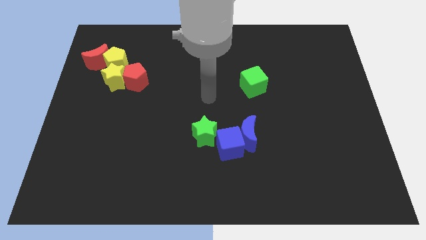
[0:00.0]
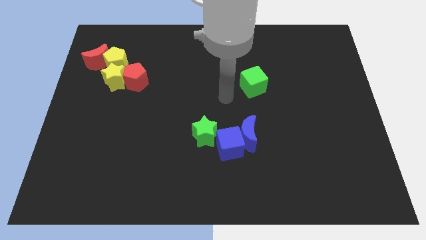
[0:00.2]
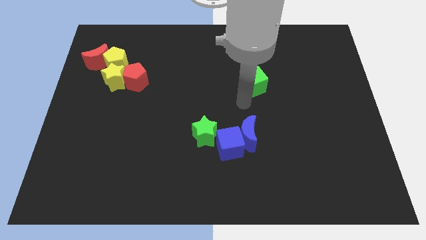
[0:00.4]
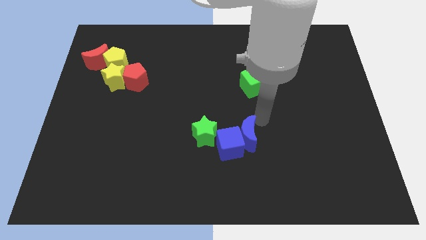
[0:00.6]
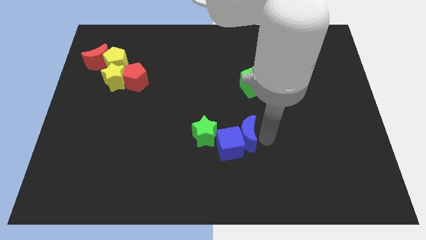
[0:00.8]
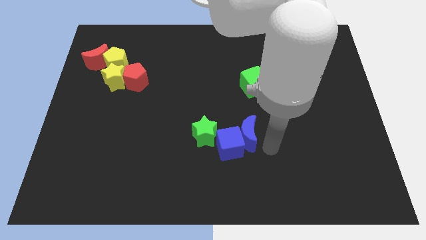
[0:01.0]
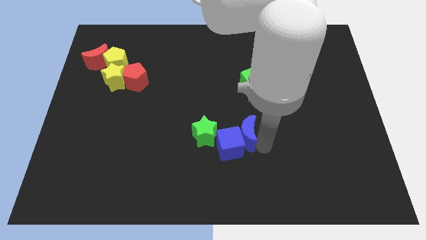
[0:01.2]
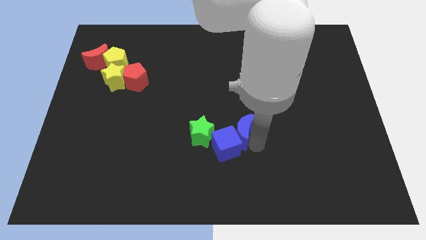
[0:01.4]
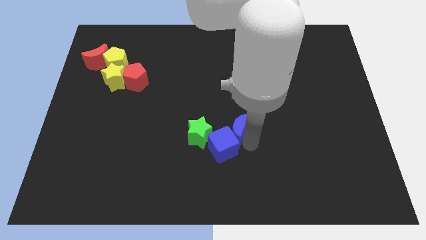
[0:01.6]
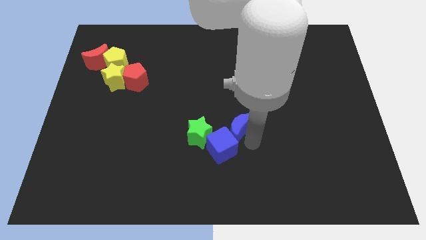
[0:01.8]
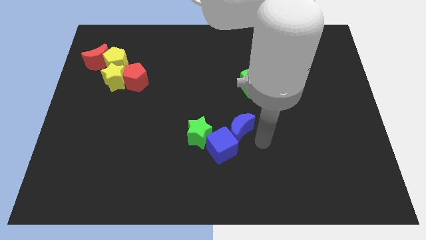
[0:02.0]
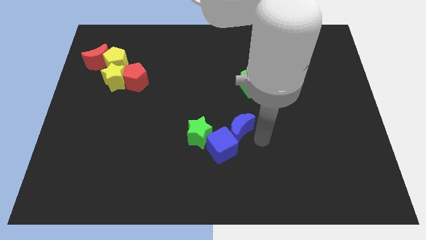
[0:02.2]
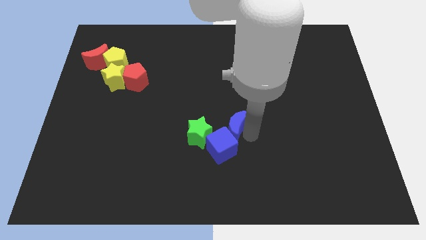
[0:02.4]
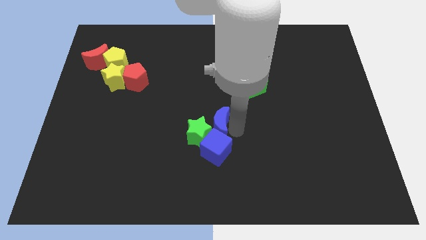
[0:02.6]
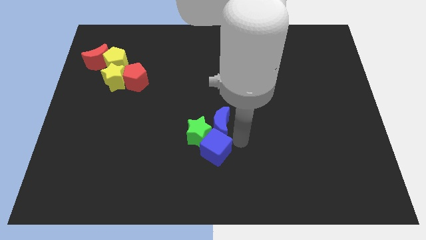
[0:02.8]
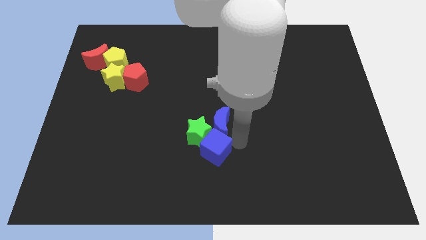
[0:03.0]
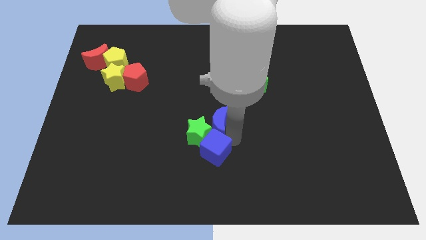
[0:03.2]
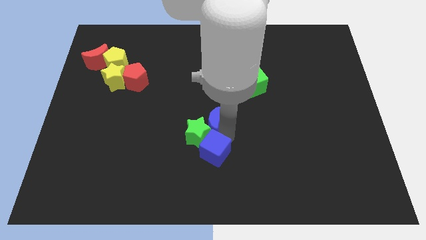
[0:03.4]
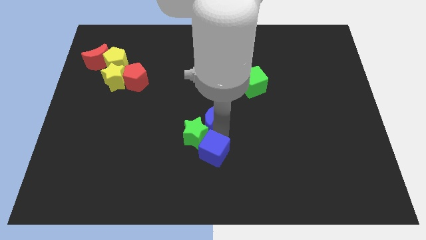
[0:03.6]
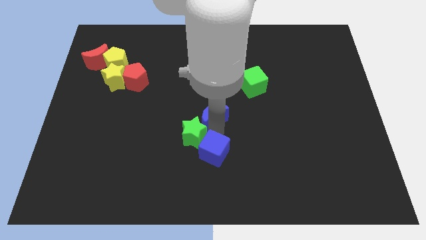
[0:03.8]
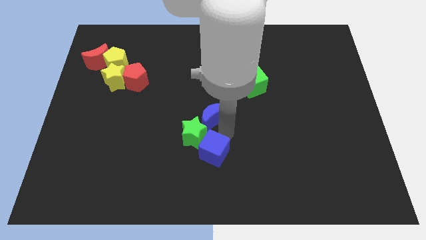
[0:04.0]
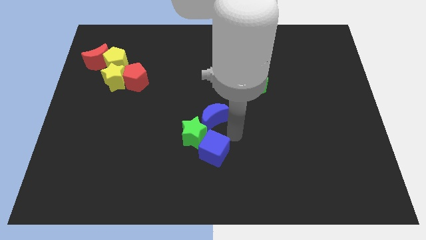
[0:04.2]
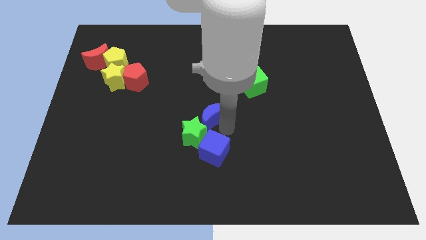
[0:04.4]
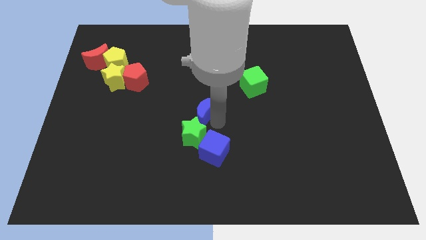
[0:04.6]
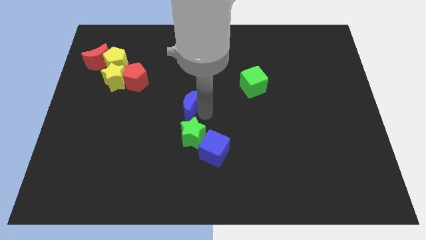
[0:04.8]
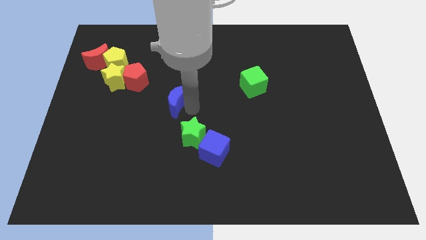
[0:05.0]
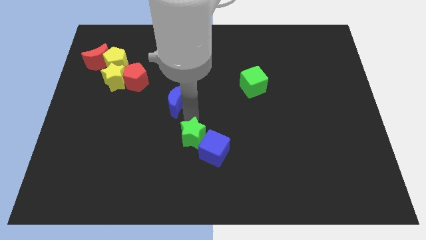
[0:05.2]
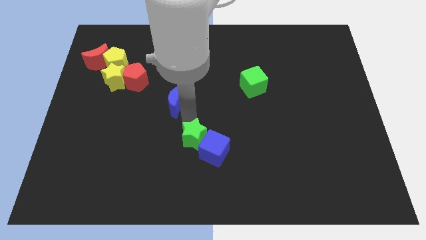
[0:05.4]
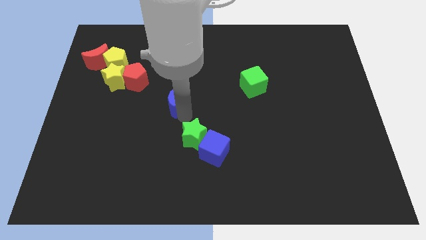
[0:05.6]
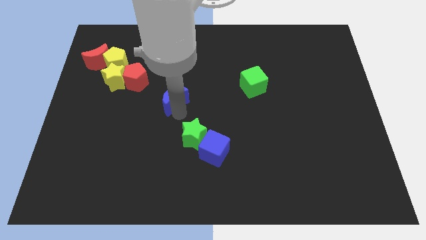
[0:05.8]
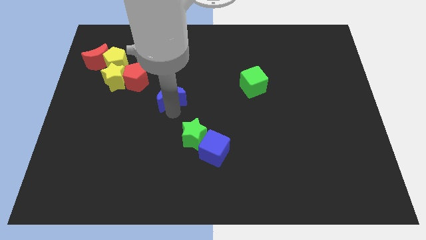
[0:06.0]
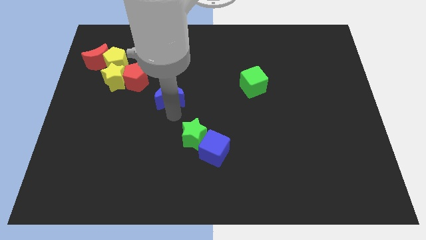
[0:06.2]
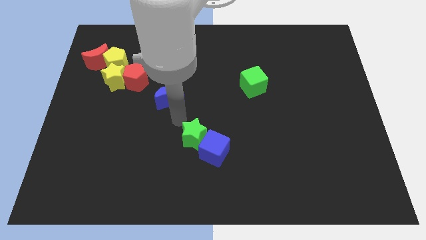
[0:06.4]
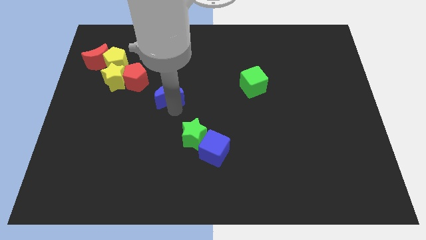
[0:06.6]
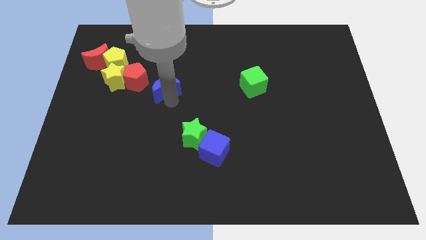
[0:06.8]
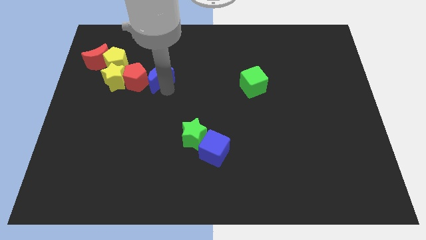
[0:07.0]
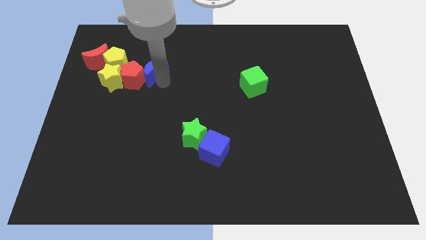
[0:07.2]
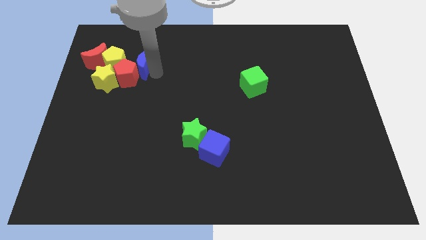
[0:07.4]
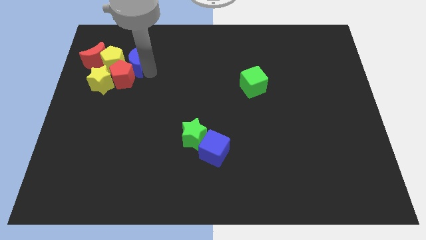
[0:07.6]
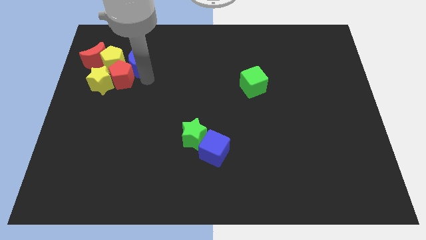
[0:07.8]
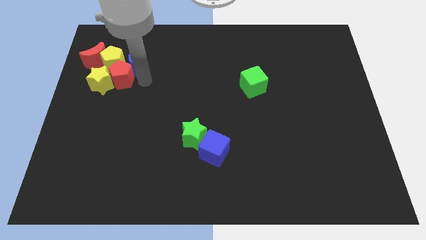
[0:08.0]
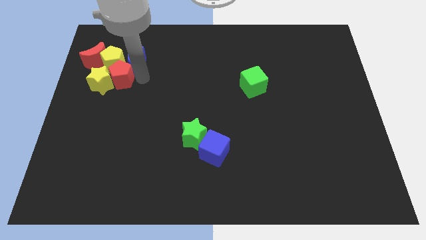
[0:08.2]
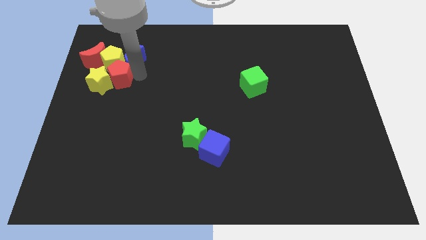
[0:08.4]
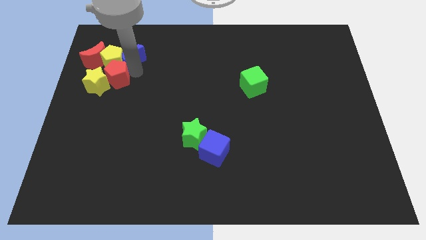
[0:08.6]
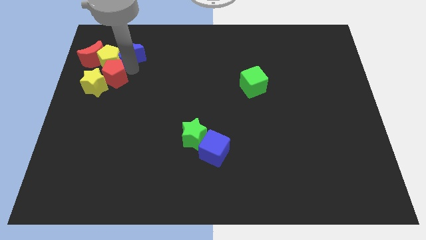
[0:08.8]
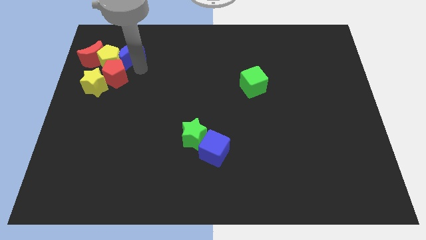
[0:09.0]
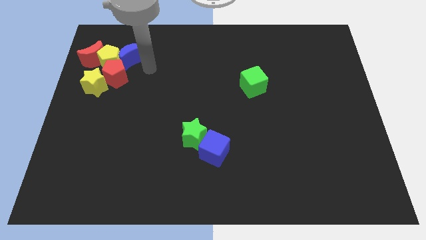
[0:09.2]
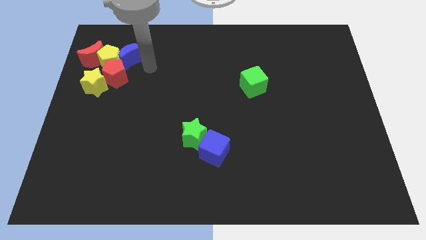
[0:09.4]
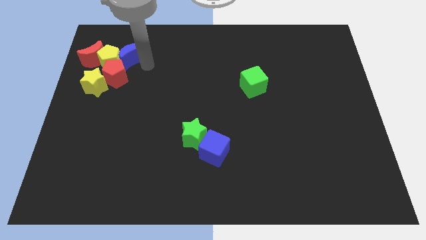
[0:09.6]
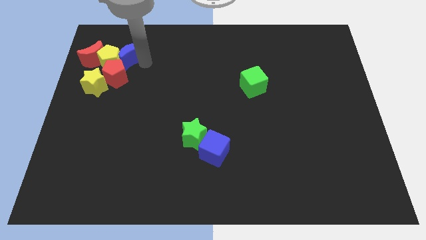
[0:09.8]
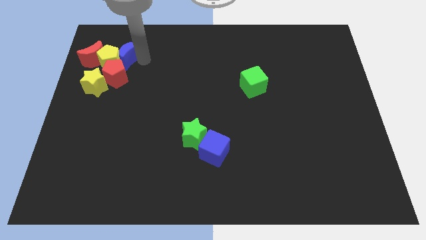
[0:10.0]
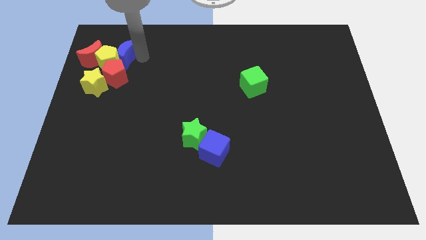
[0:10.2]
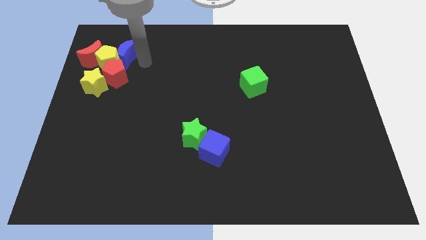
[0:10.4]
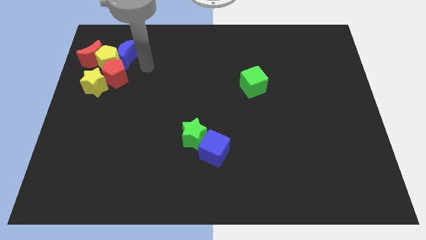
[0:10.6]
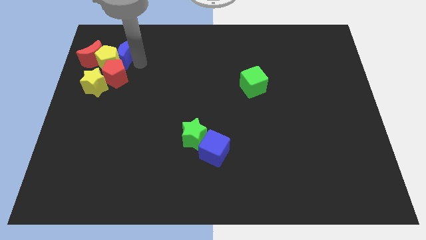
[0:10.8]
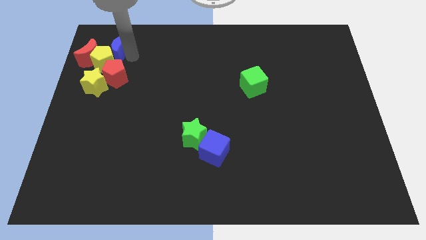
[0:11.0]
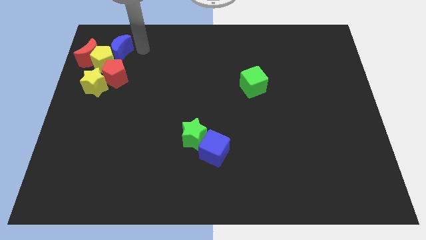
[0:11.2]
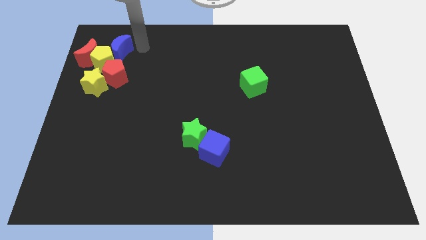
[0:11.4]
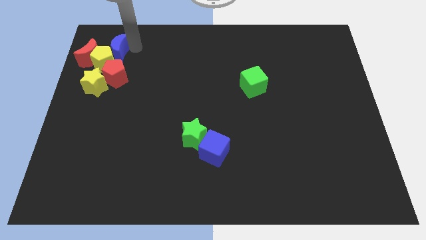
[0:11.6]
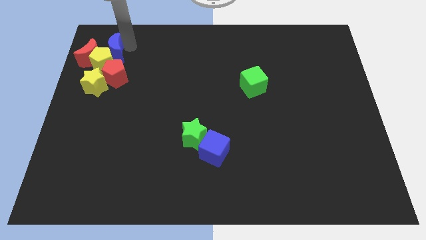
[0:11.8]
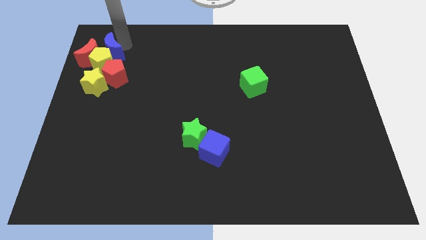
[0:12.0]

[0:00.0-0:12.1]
put the blue moon close to the red moon

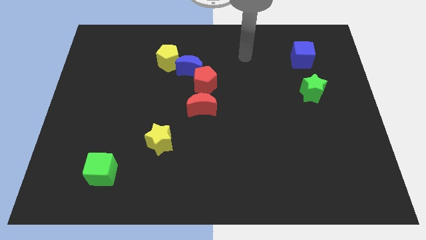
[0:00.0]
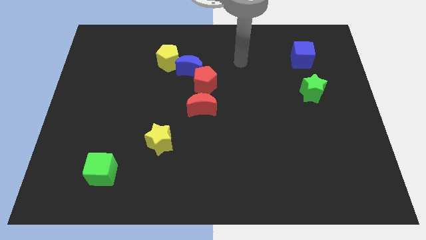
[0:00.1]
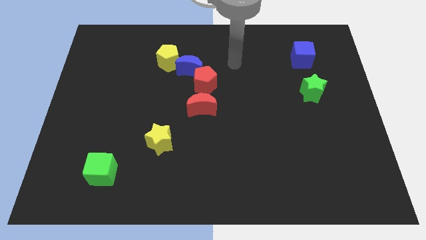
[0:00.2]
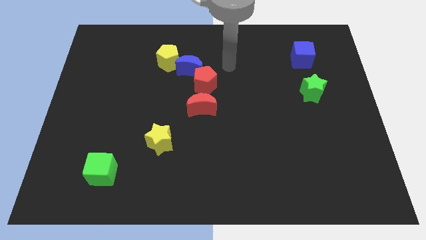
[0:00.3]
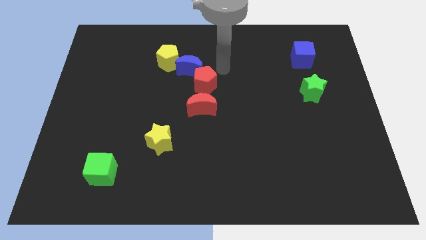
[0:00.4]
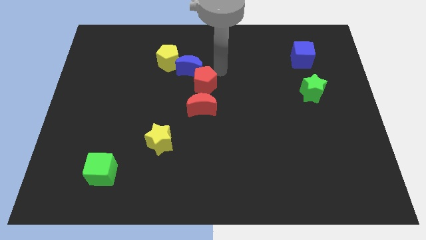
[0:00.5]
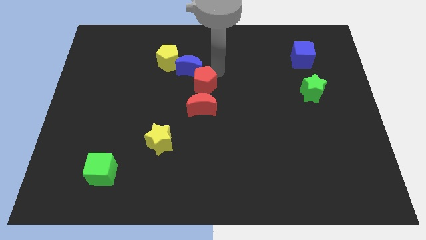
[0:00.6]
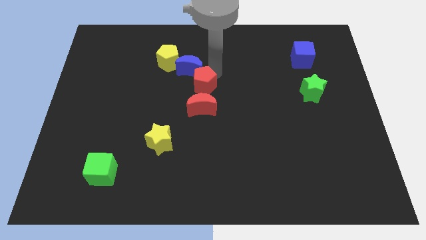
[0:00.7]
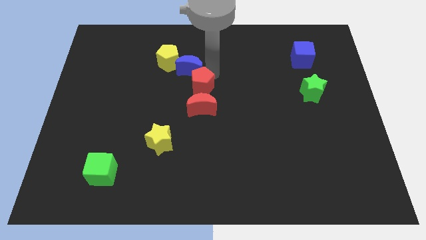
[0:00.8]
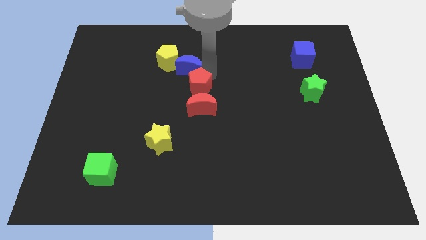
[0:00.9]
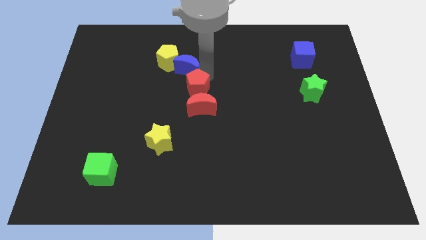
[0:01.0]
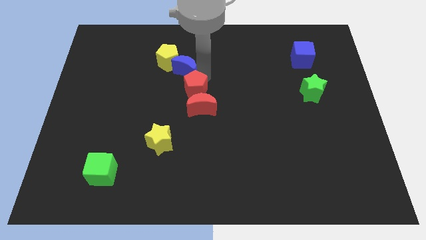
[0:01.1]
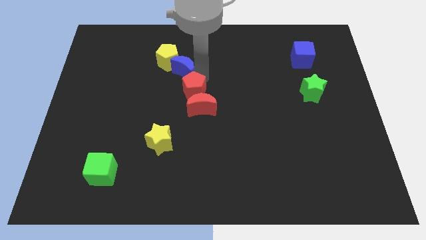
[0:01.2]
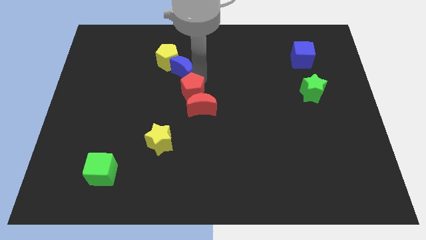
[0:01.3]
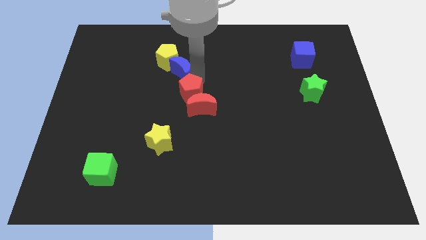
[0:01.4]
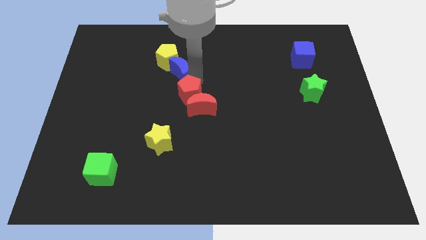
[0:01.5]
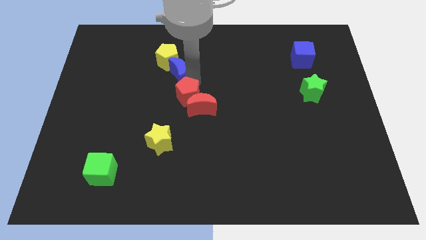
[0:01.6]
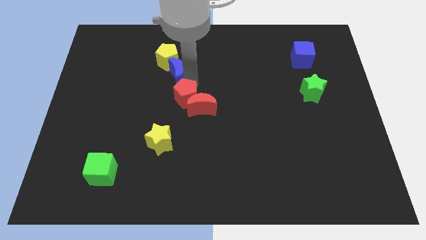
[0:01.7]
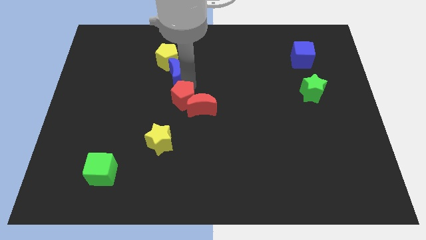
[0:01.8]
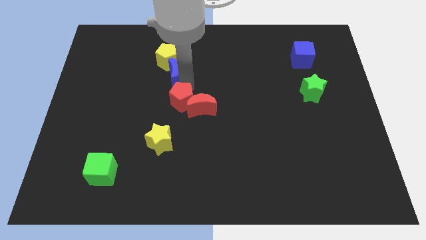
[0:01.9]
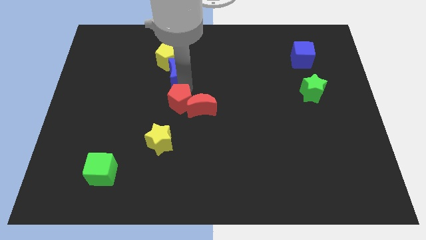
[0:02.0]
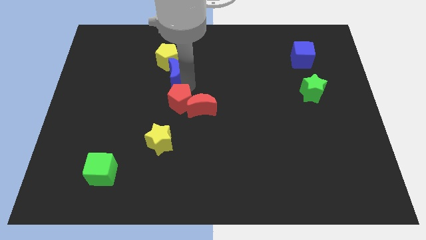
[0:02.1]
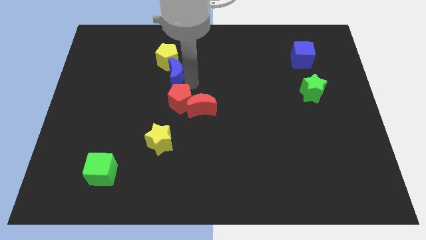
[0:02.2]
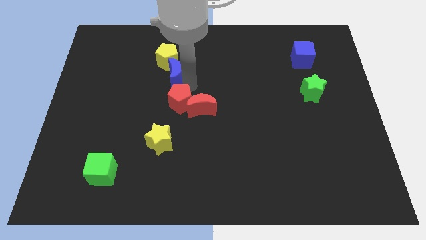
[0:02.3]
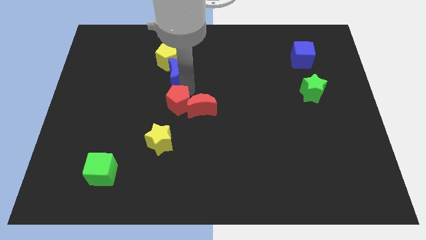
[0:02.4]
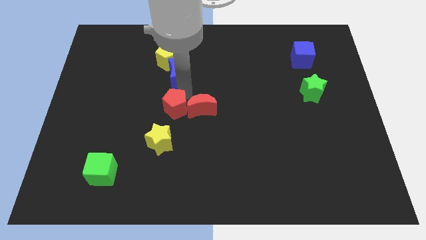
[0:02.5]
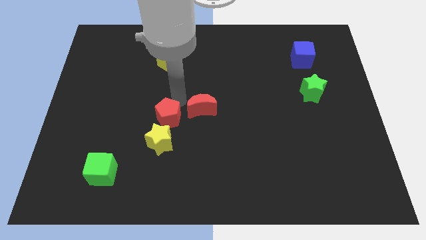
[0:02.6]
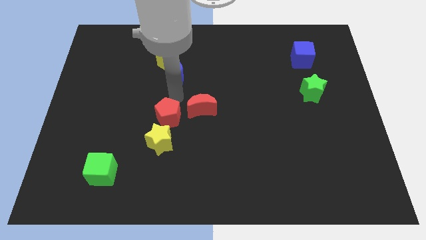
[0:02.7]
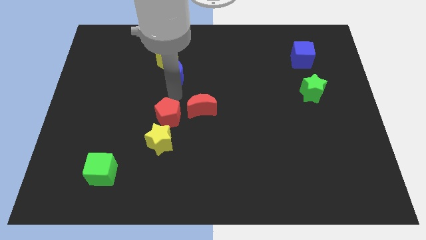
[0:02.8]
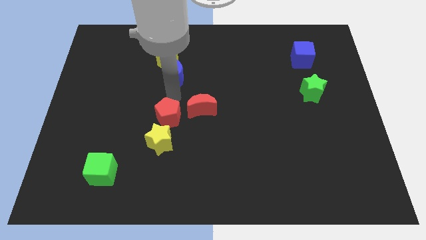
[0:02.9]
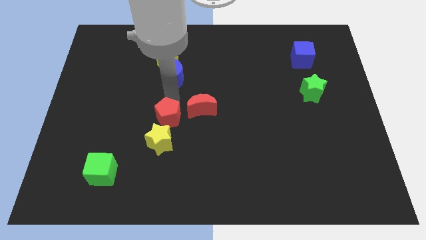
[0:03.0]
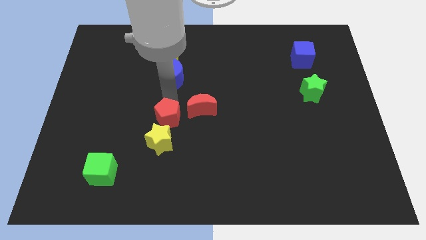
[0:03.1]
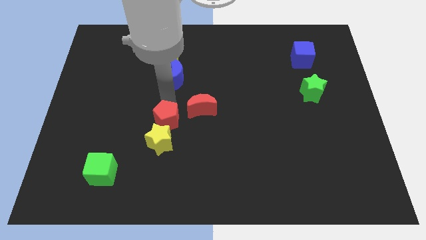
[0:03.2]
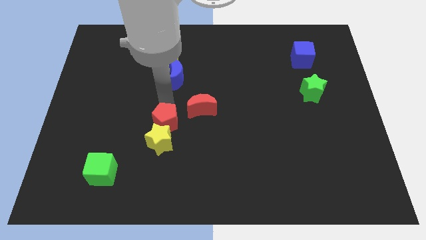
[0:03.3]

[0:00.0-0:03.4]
move the red pentagon towards the yellow star
